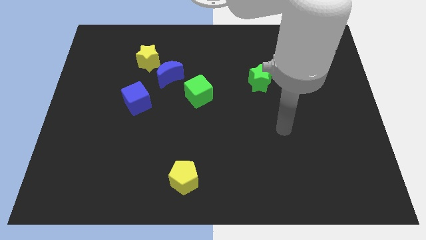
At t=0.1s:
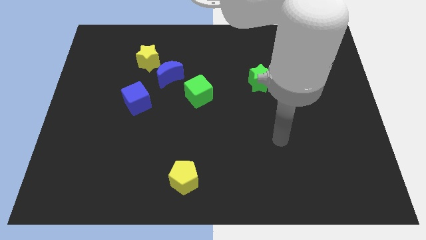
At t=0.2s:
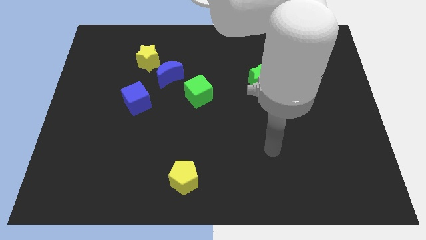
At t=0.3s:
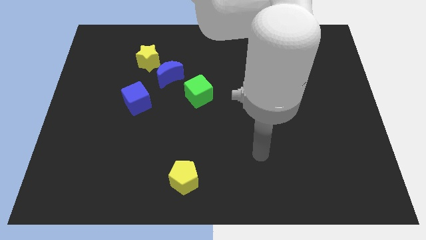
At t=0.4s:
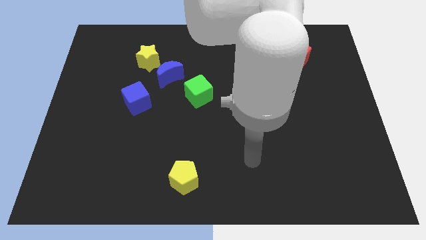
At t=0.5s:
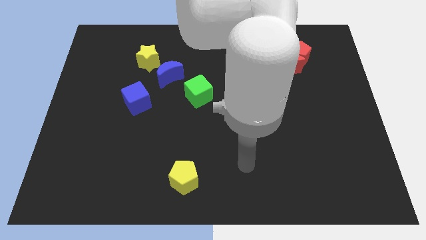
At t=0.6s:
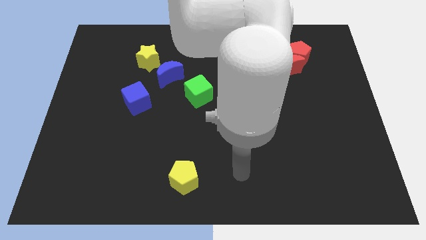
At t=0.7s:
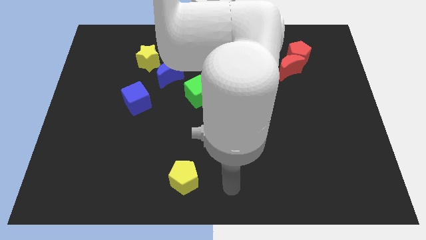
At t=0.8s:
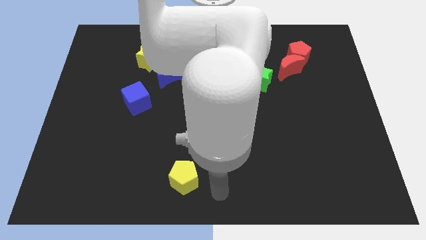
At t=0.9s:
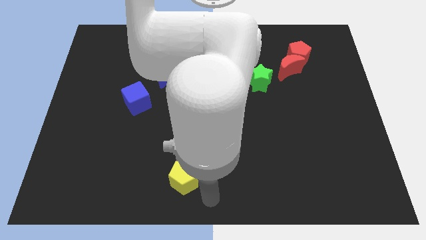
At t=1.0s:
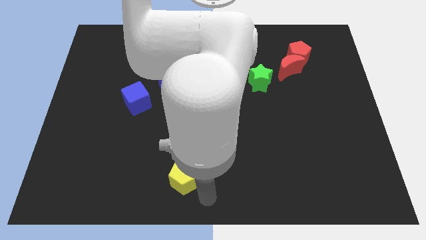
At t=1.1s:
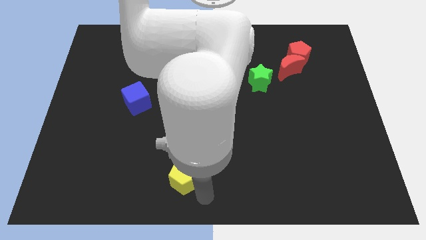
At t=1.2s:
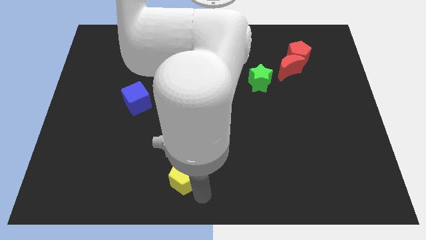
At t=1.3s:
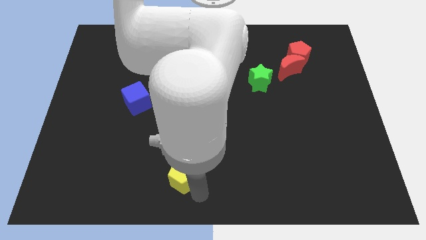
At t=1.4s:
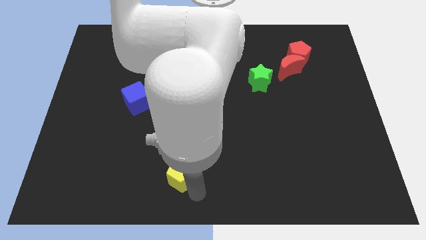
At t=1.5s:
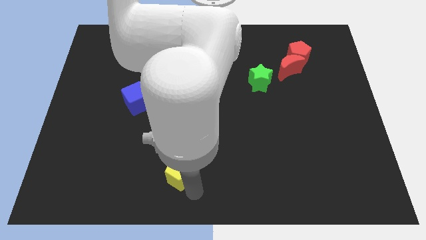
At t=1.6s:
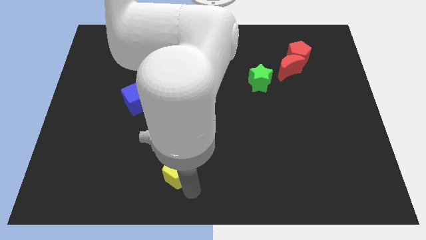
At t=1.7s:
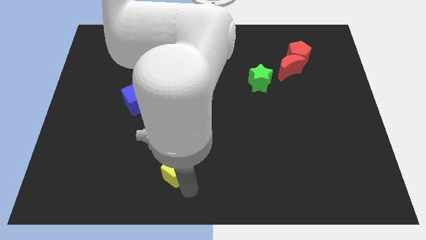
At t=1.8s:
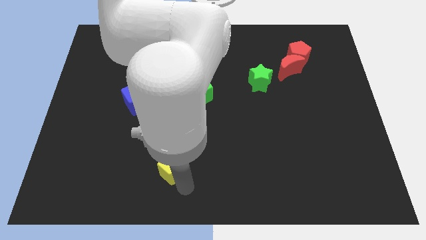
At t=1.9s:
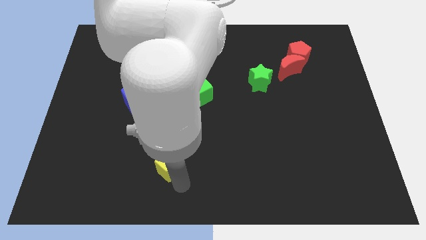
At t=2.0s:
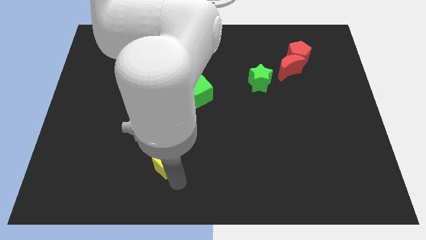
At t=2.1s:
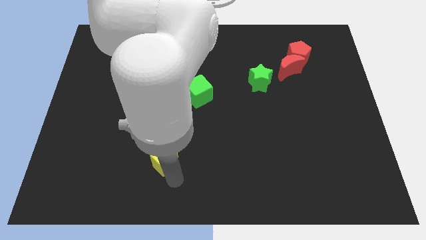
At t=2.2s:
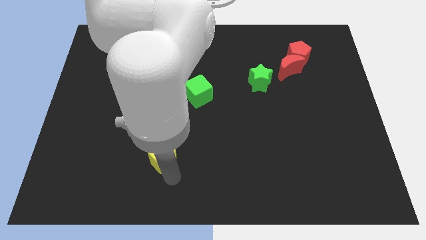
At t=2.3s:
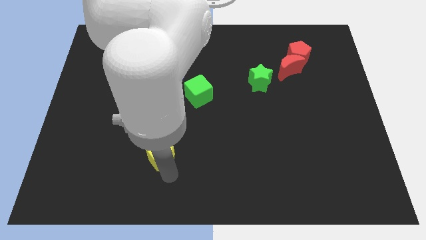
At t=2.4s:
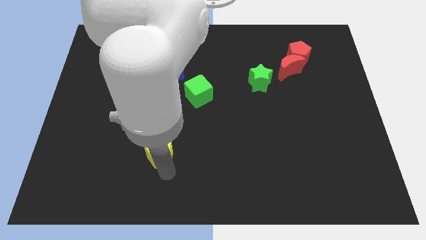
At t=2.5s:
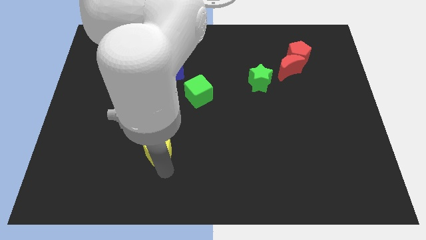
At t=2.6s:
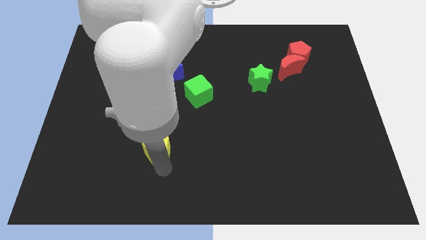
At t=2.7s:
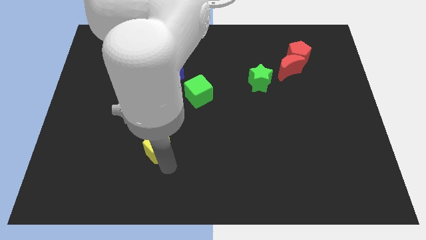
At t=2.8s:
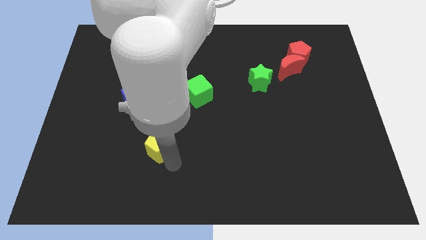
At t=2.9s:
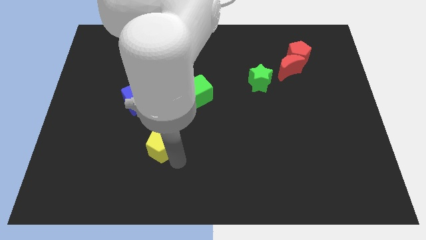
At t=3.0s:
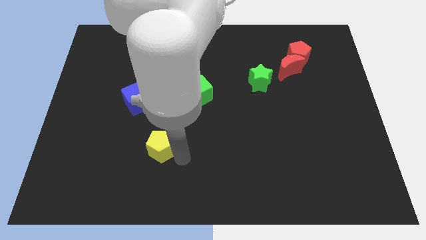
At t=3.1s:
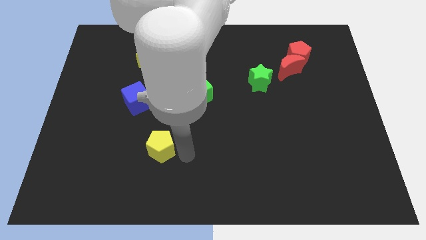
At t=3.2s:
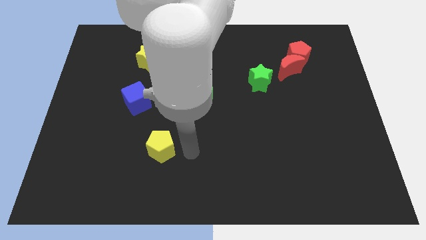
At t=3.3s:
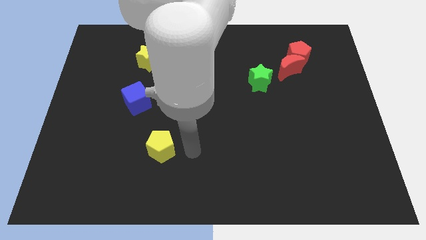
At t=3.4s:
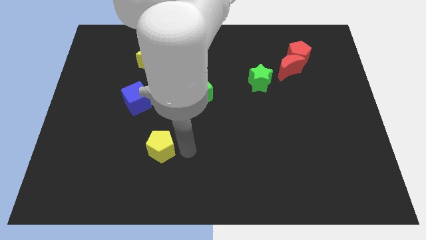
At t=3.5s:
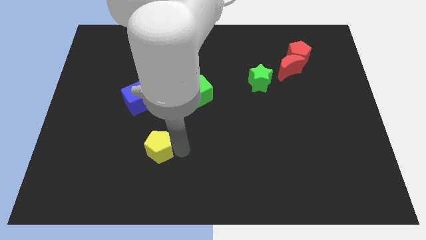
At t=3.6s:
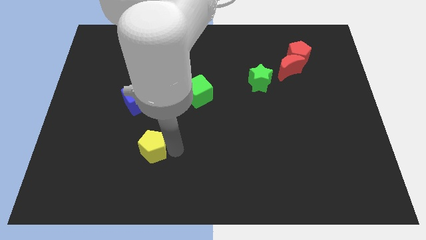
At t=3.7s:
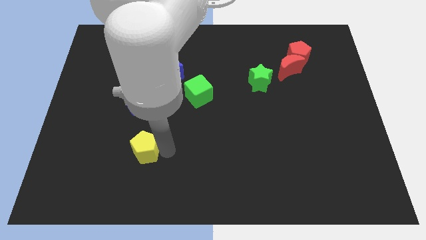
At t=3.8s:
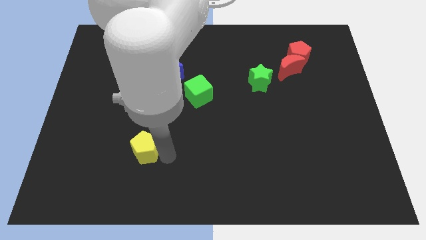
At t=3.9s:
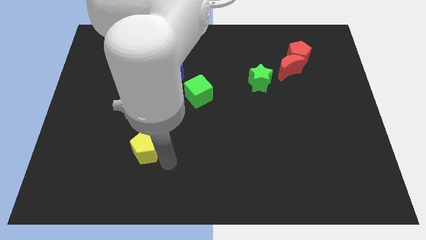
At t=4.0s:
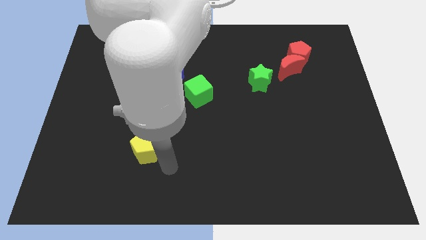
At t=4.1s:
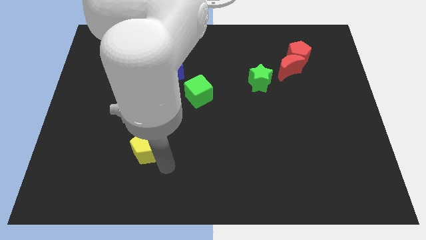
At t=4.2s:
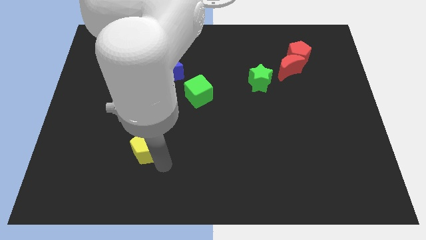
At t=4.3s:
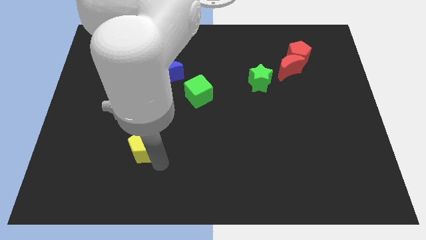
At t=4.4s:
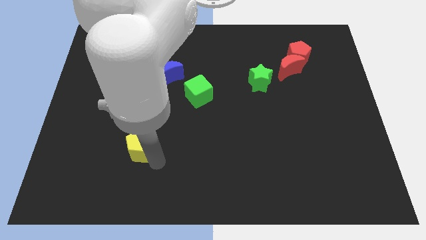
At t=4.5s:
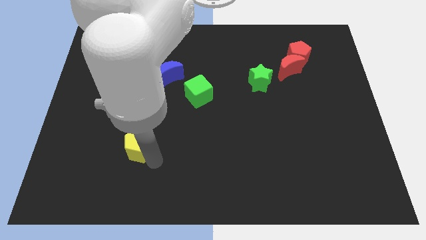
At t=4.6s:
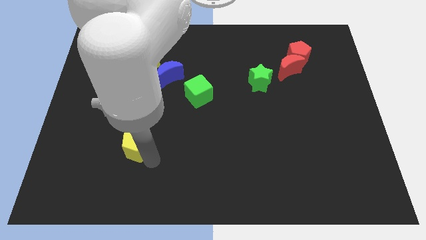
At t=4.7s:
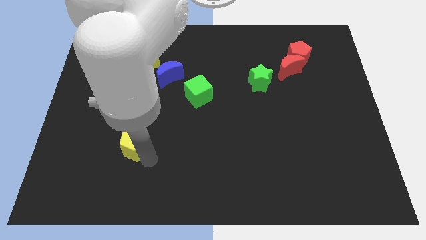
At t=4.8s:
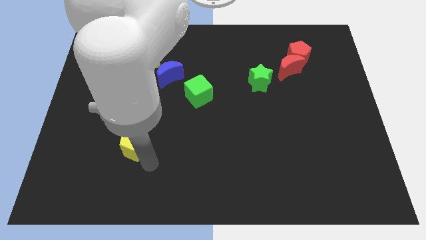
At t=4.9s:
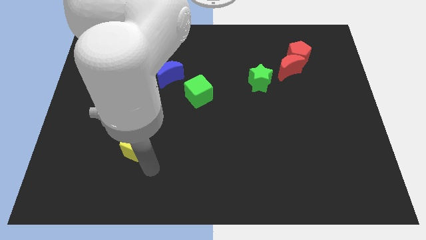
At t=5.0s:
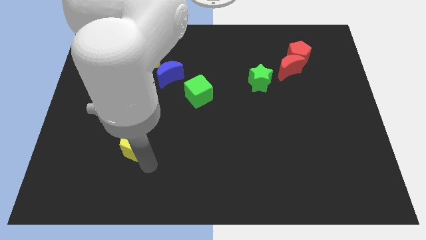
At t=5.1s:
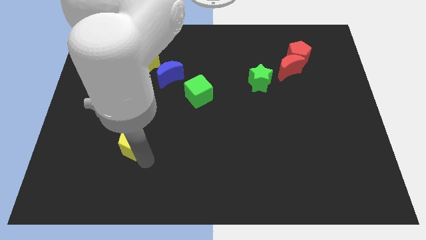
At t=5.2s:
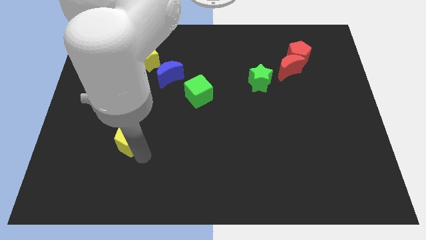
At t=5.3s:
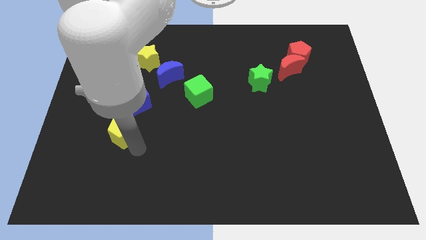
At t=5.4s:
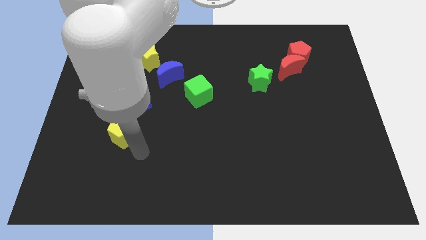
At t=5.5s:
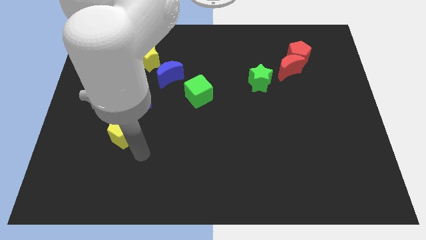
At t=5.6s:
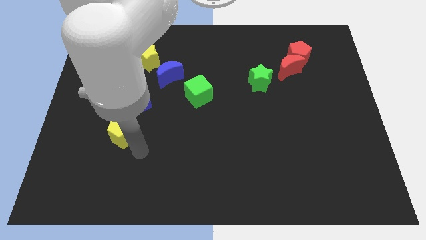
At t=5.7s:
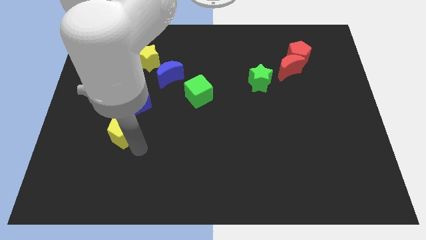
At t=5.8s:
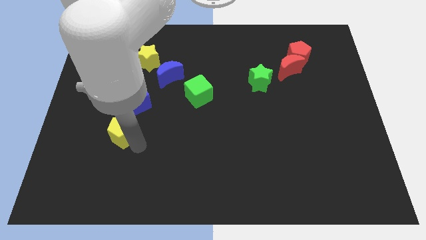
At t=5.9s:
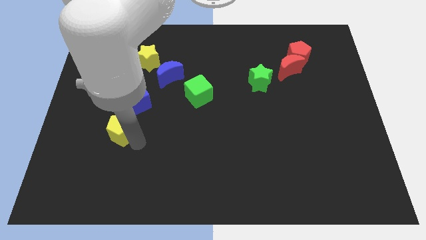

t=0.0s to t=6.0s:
push the yellow pentagon to the bottom left of the blue cube

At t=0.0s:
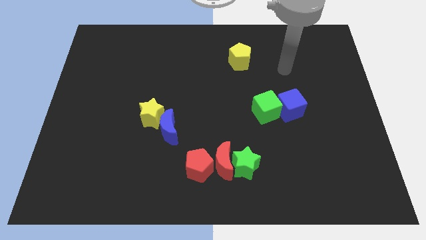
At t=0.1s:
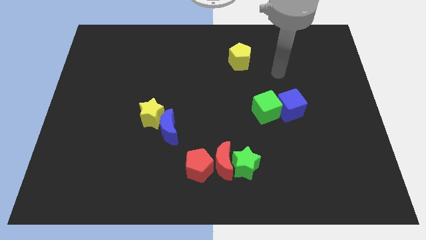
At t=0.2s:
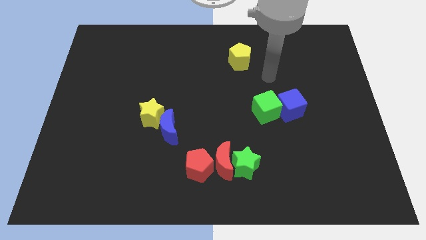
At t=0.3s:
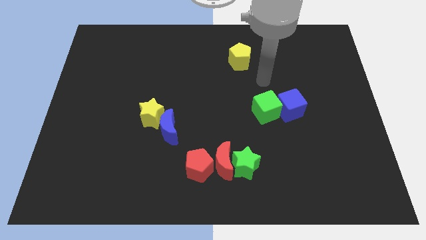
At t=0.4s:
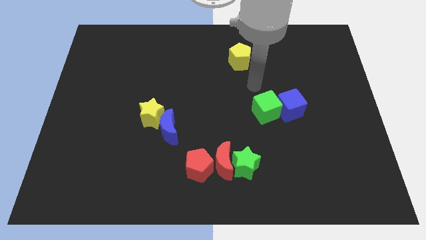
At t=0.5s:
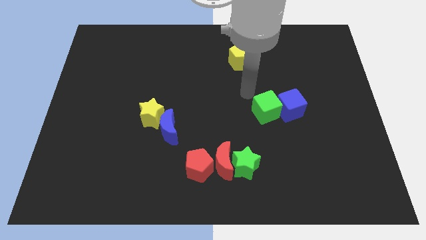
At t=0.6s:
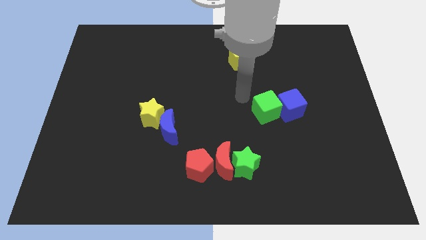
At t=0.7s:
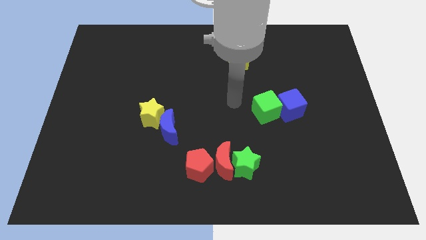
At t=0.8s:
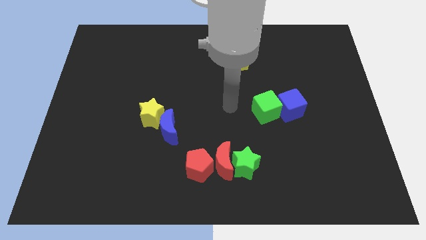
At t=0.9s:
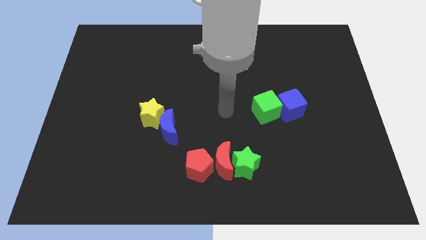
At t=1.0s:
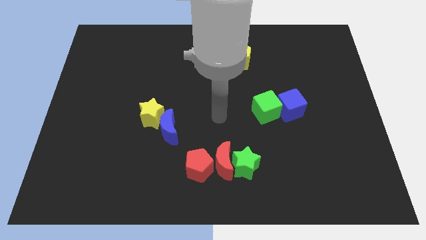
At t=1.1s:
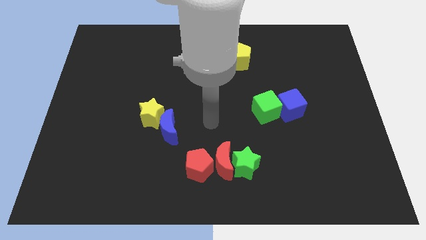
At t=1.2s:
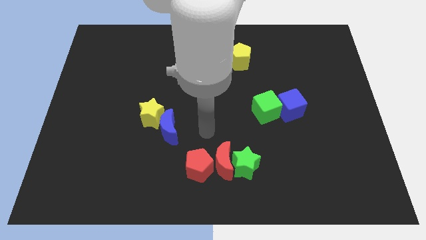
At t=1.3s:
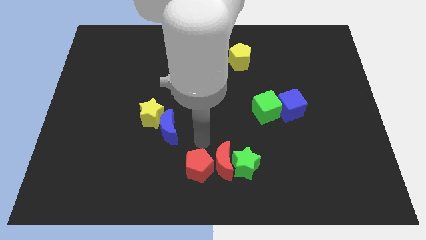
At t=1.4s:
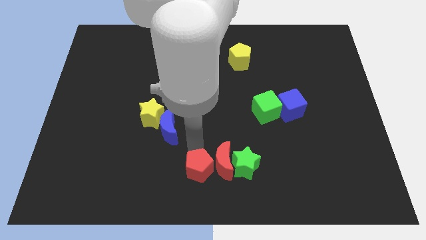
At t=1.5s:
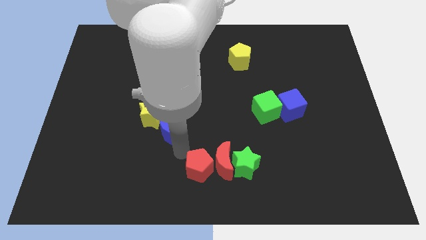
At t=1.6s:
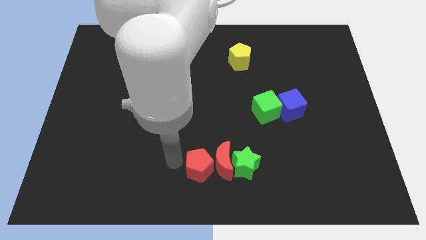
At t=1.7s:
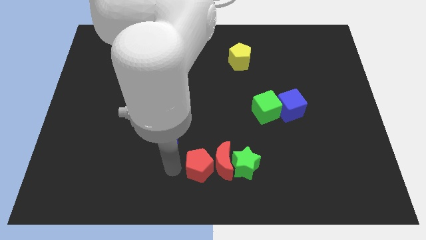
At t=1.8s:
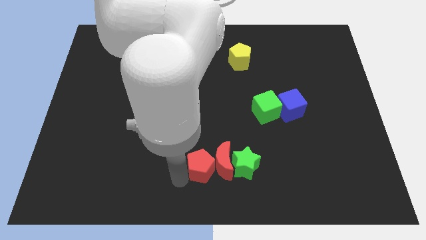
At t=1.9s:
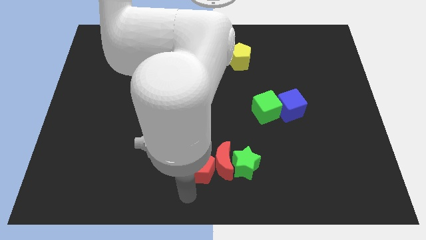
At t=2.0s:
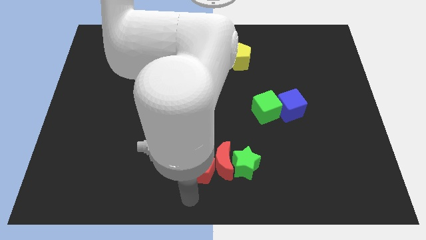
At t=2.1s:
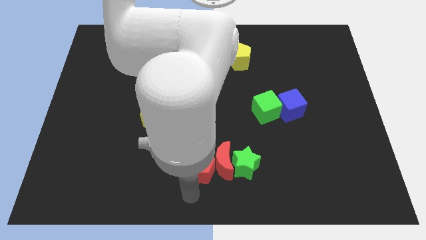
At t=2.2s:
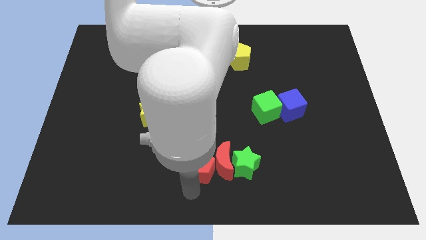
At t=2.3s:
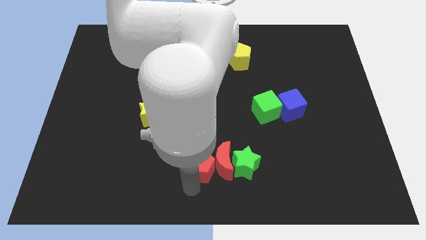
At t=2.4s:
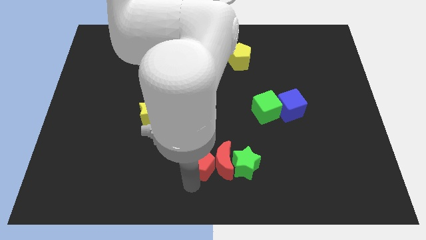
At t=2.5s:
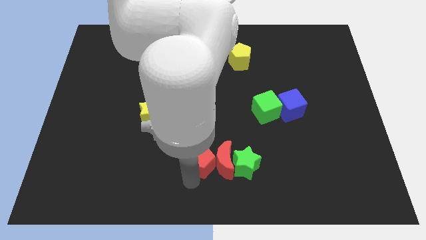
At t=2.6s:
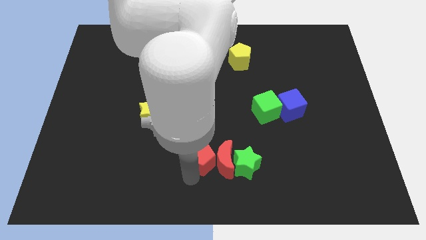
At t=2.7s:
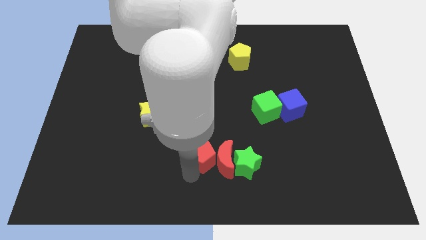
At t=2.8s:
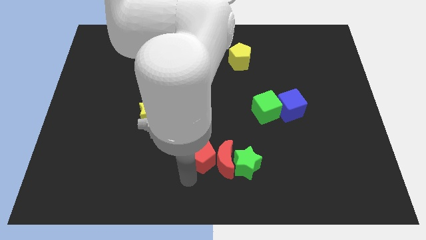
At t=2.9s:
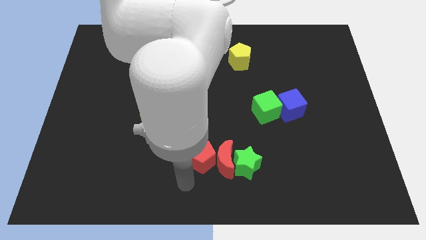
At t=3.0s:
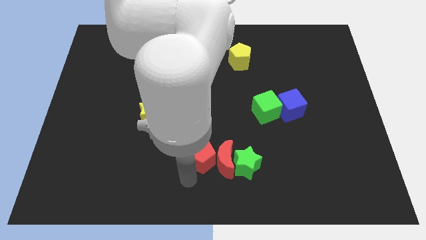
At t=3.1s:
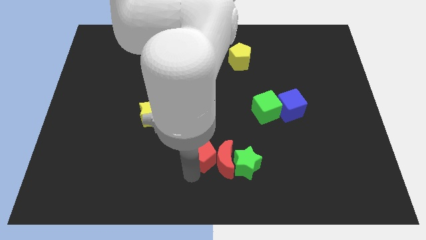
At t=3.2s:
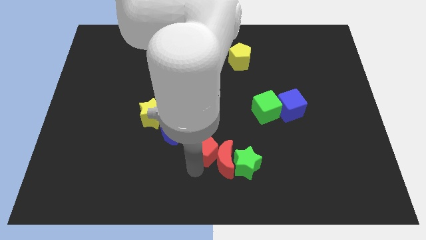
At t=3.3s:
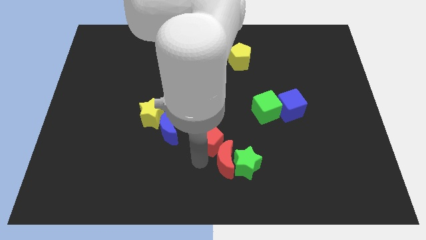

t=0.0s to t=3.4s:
push the red pentagon to the top side of the red moon
